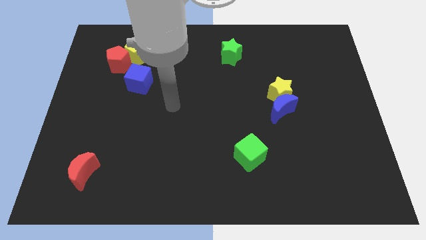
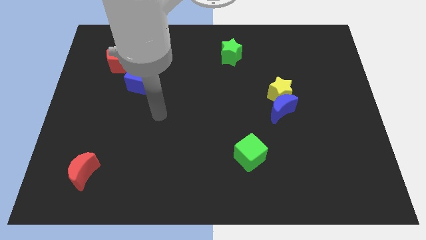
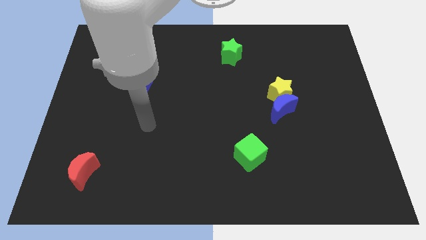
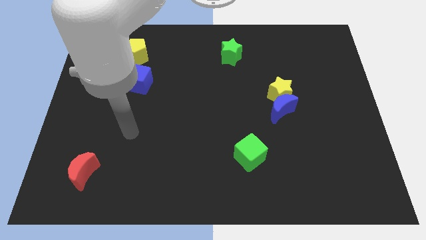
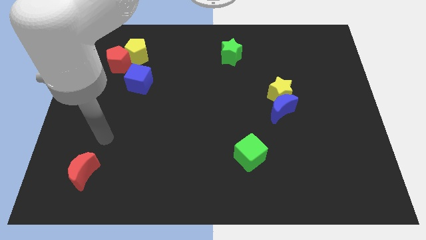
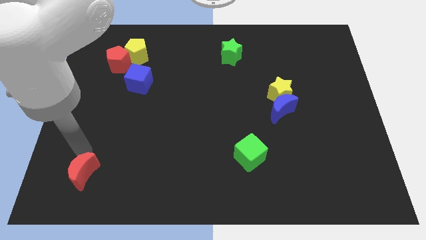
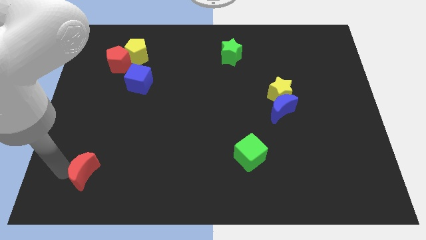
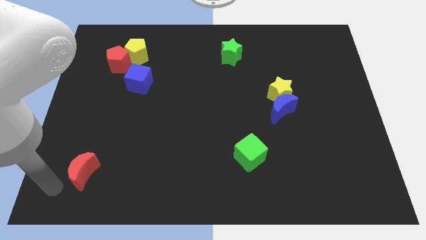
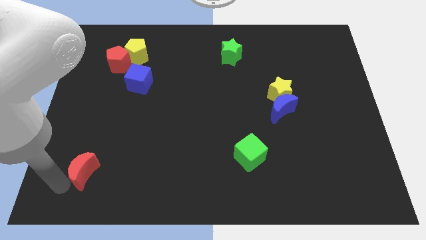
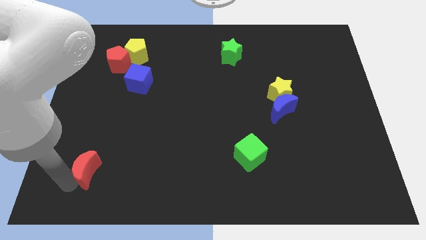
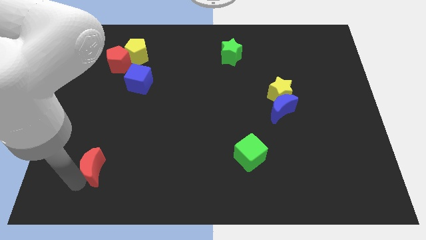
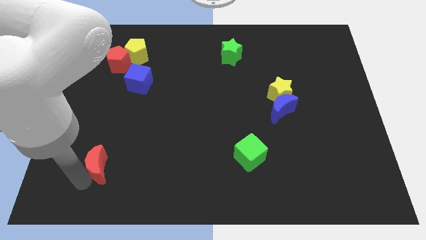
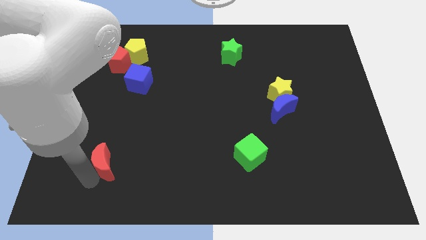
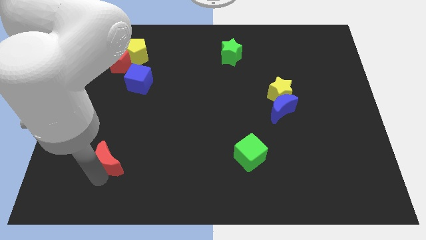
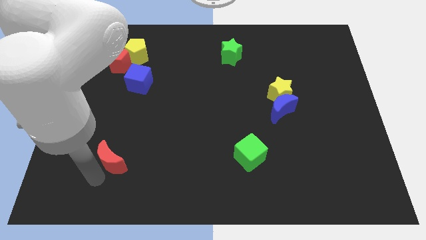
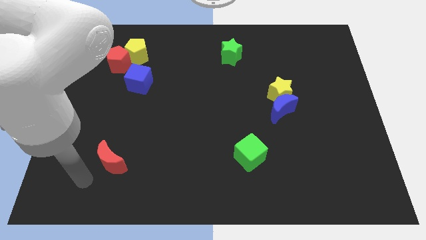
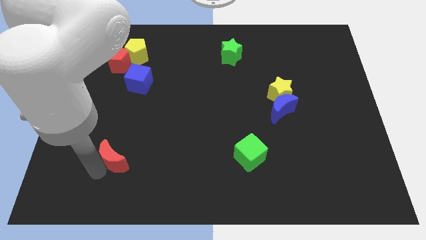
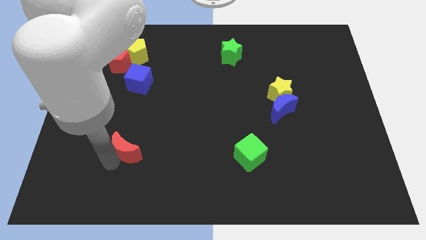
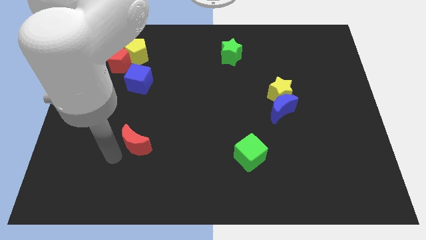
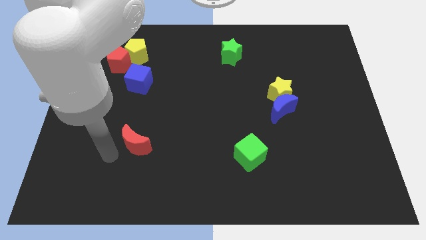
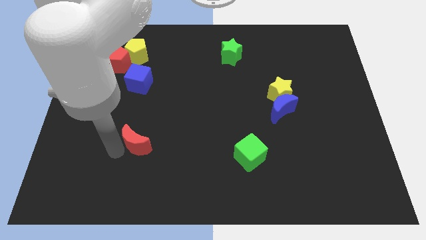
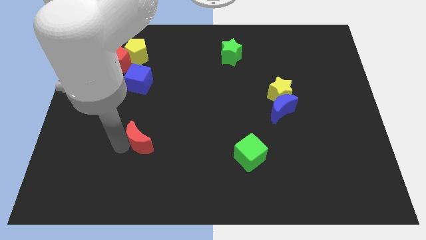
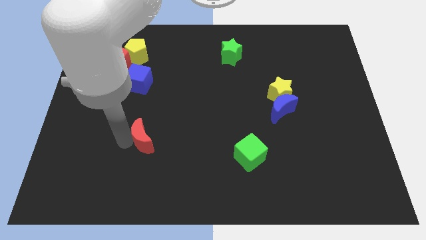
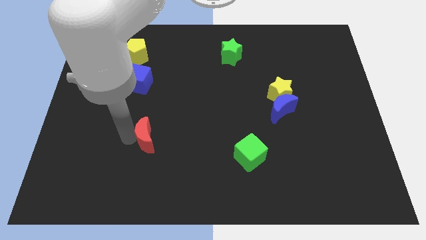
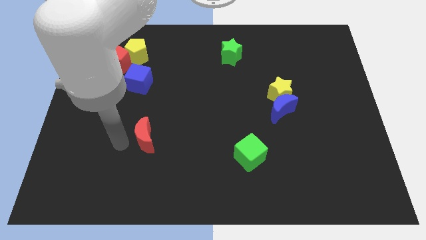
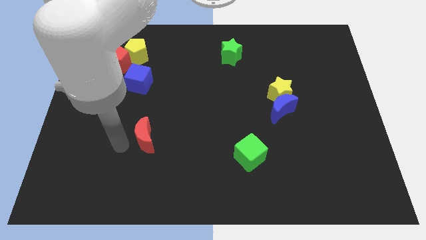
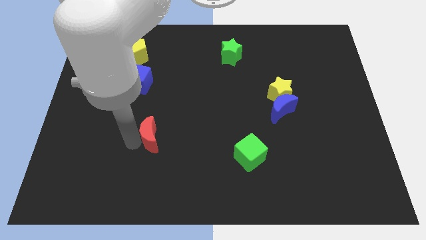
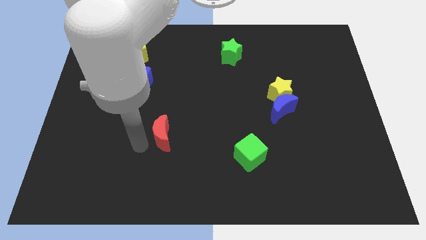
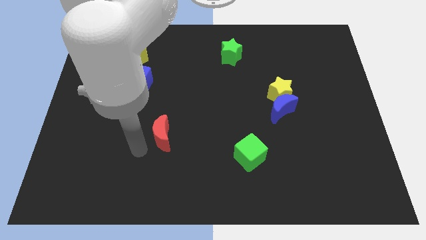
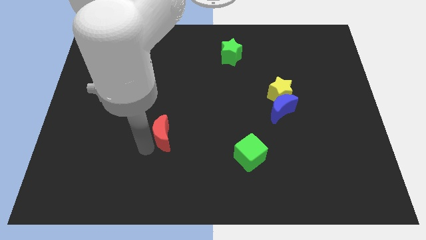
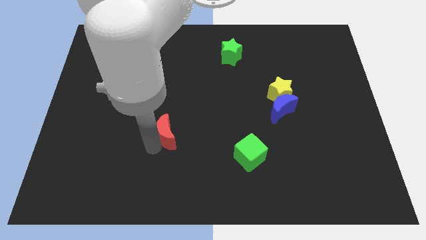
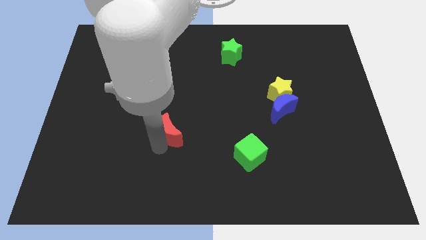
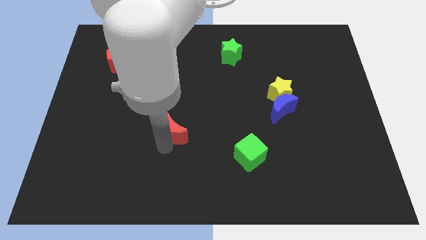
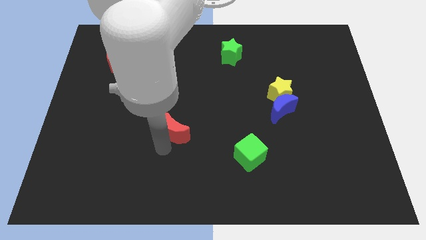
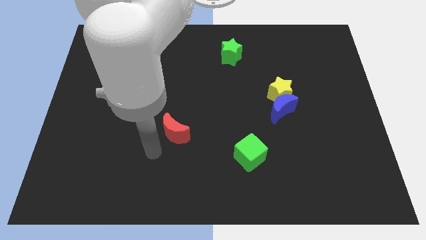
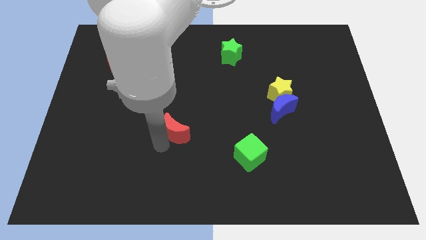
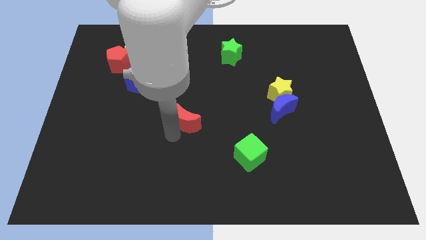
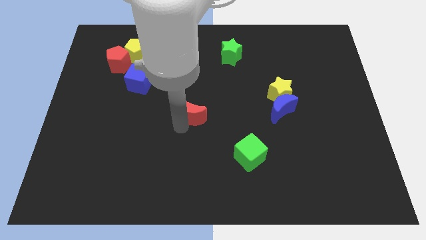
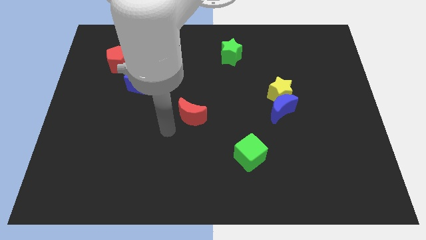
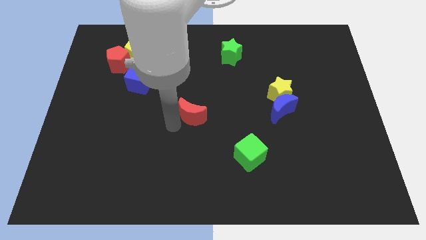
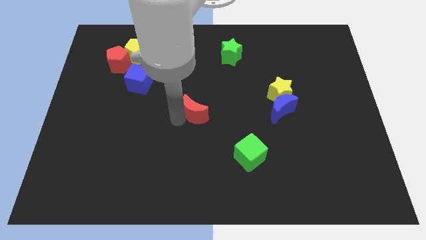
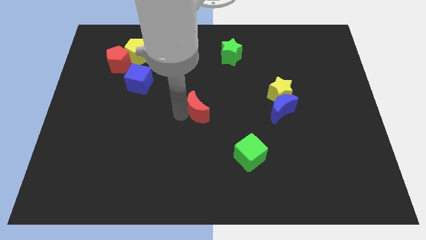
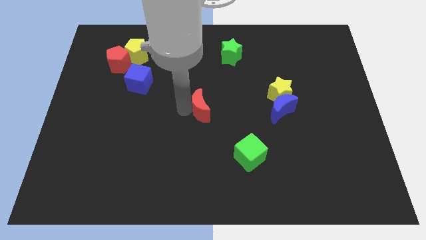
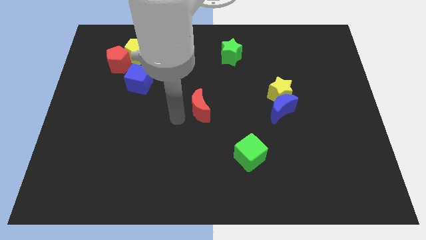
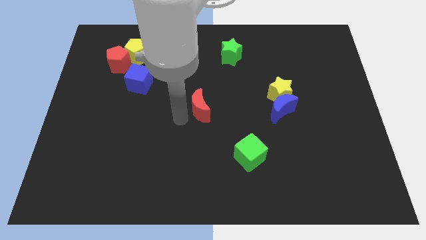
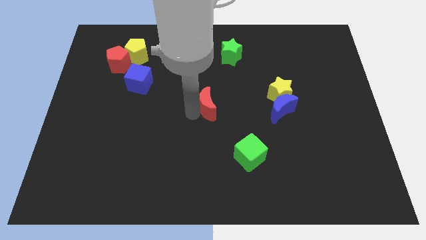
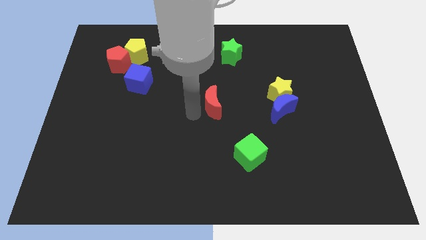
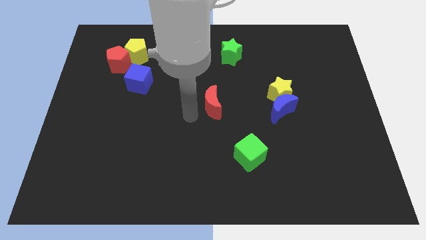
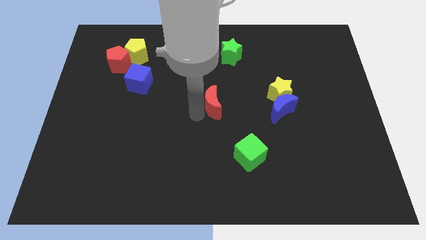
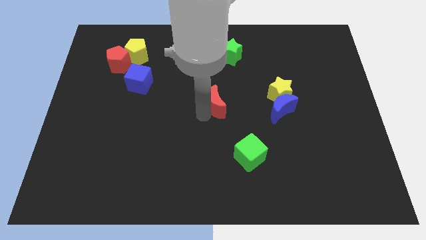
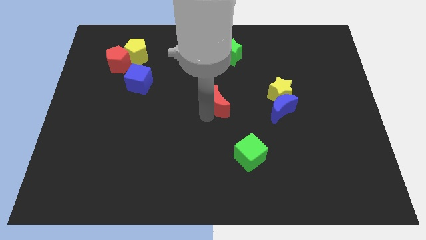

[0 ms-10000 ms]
move the red moon to the left side of the yellow star

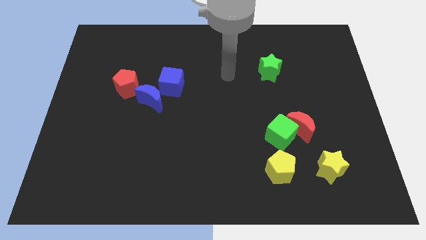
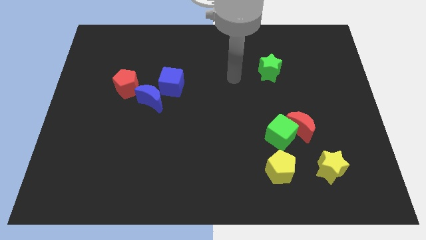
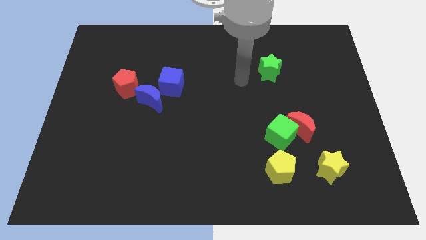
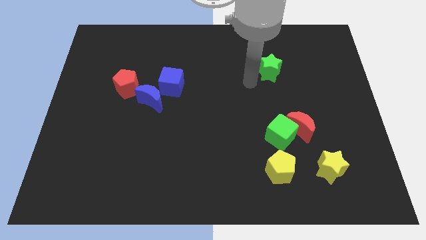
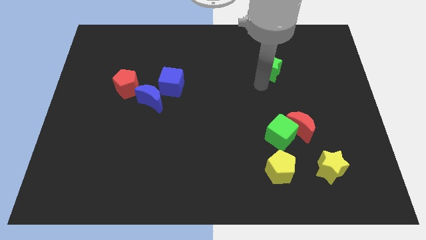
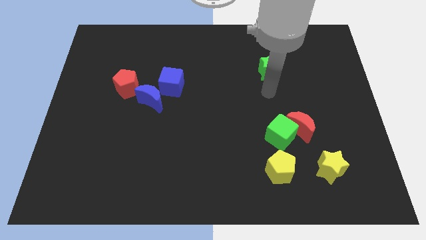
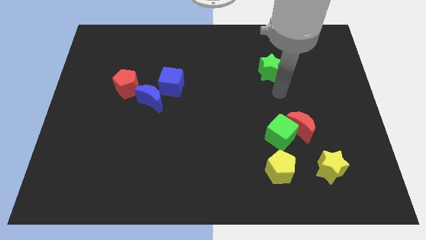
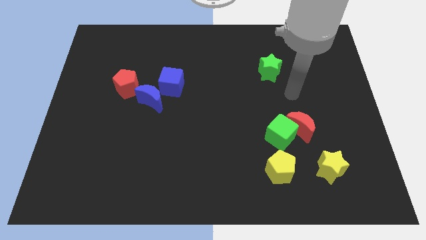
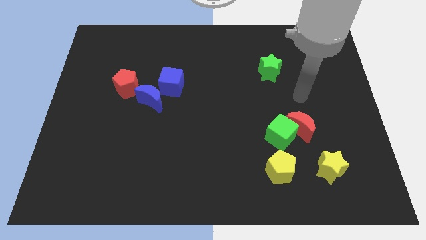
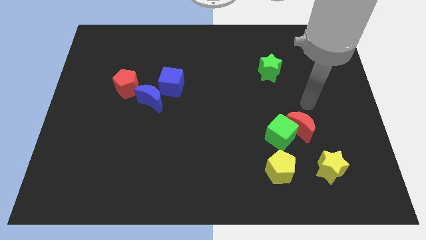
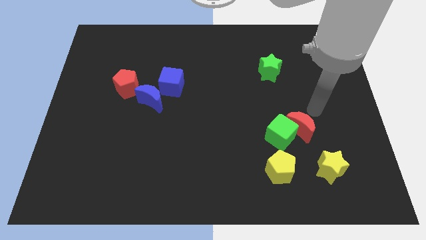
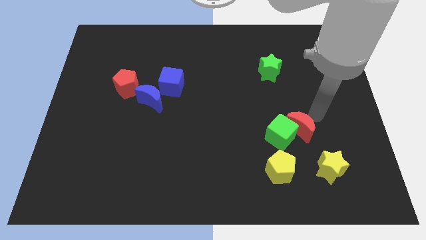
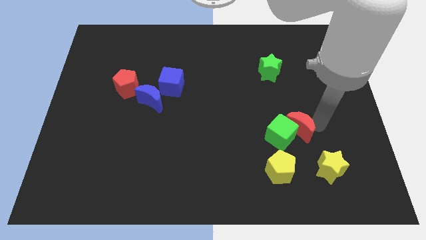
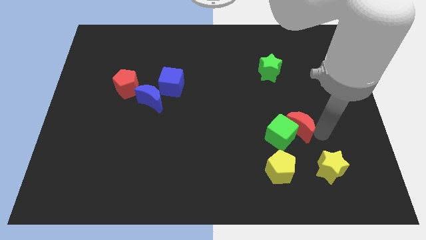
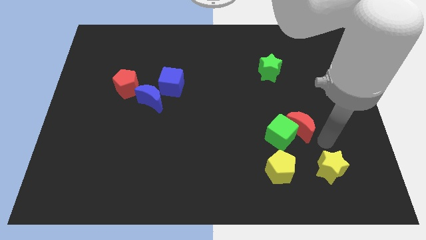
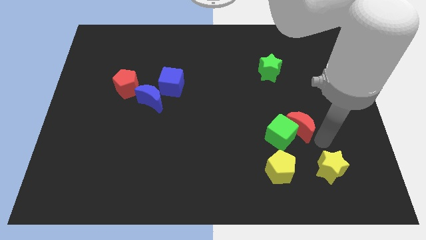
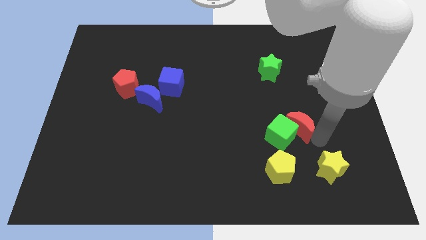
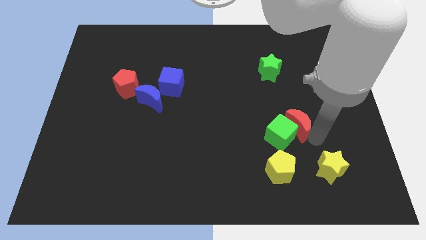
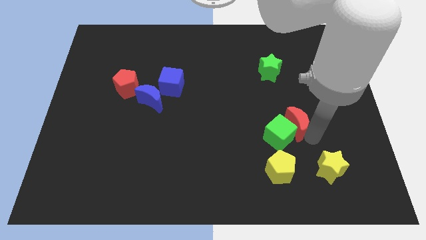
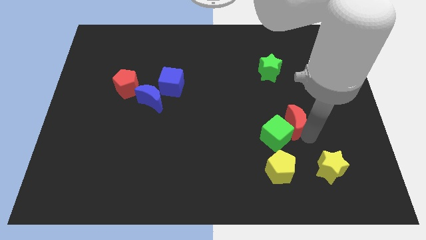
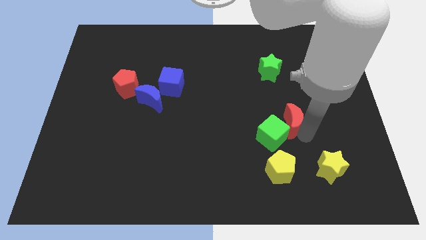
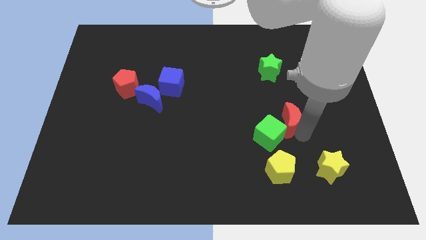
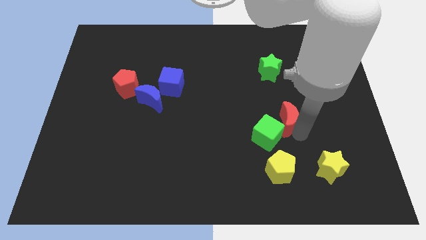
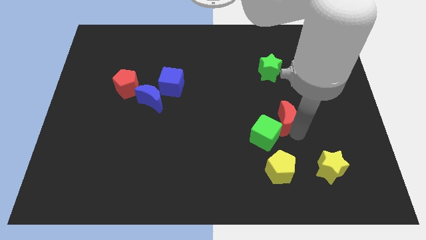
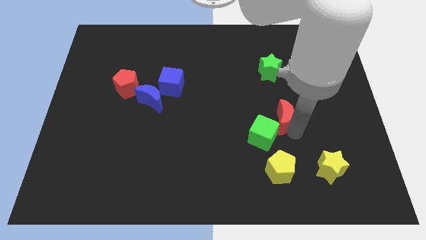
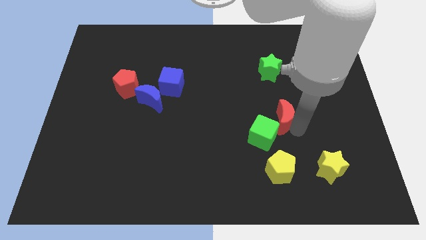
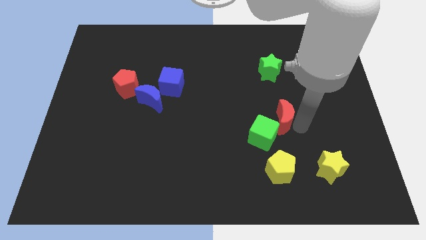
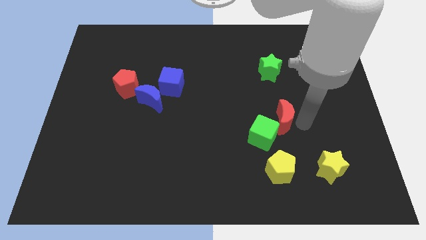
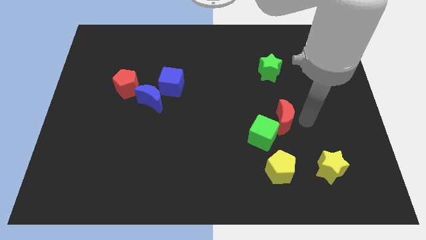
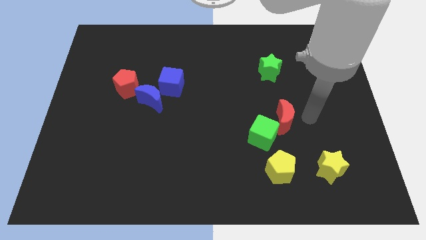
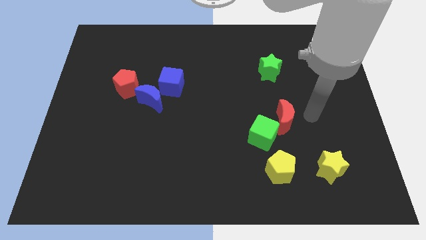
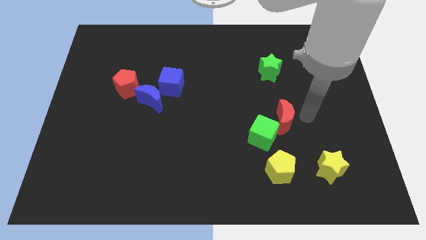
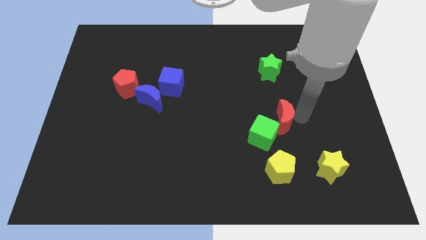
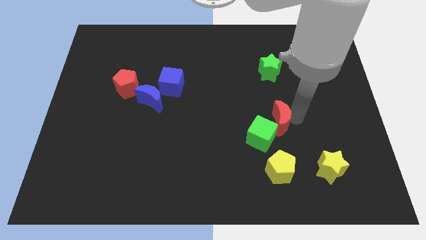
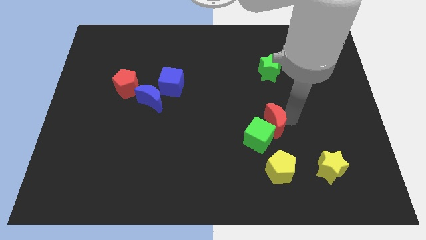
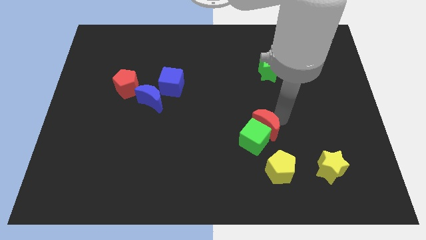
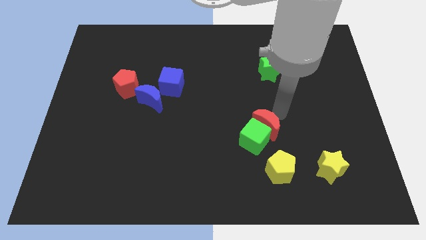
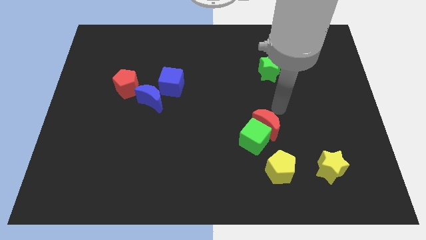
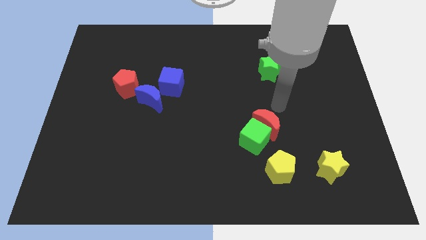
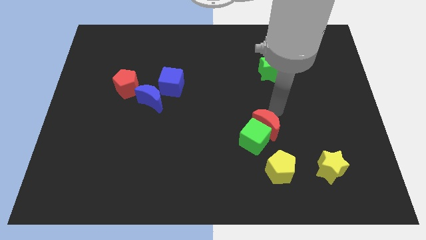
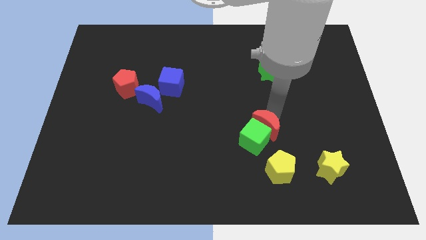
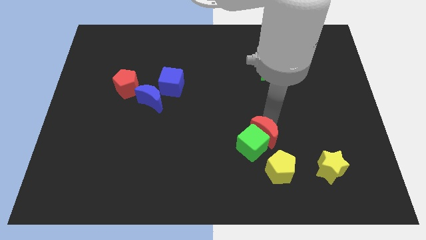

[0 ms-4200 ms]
push the red moon to the top left side of the yellow pentagon
